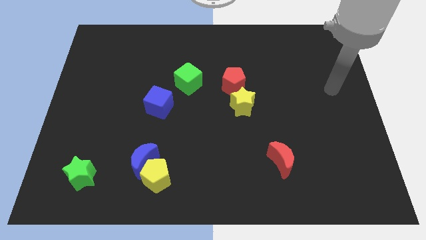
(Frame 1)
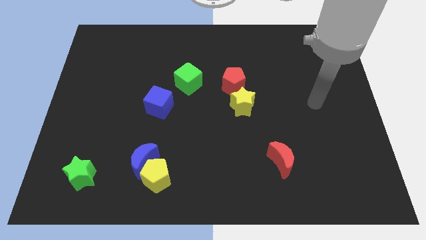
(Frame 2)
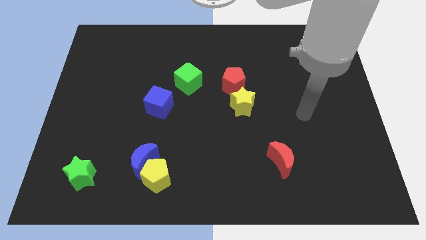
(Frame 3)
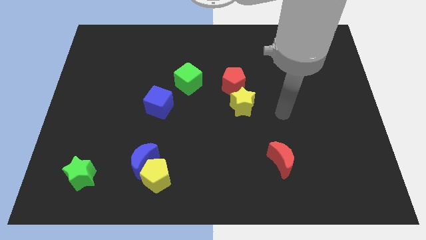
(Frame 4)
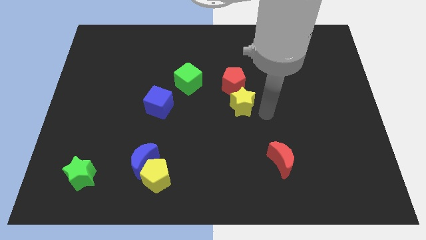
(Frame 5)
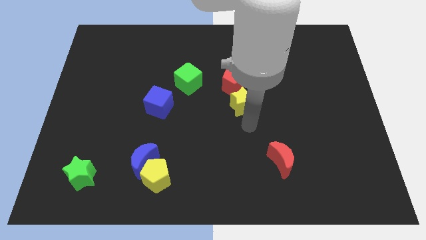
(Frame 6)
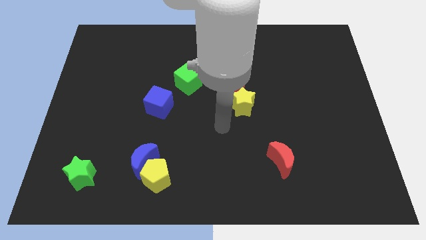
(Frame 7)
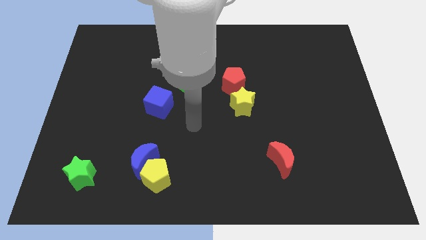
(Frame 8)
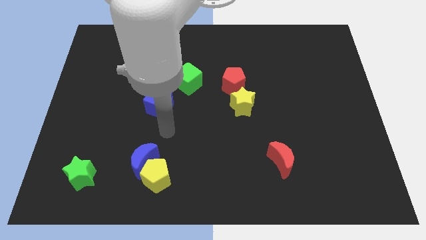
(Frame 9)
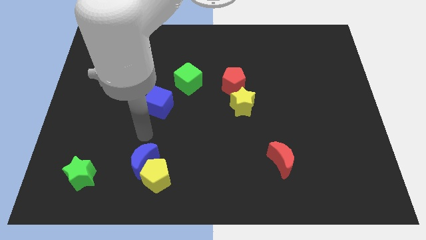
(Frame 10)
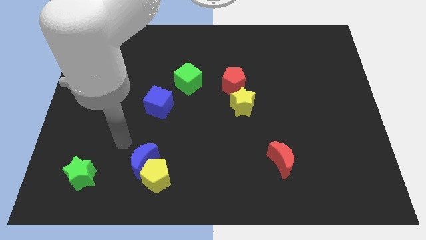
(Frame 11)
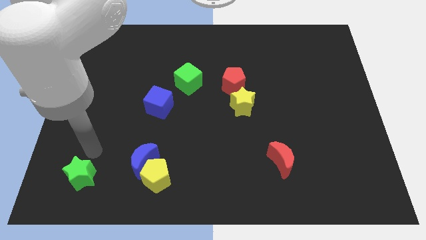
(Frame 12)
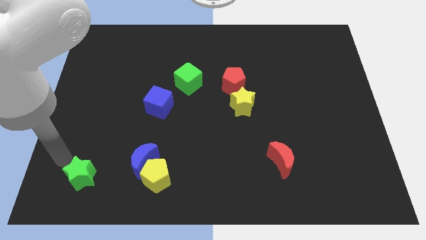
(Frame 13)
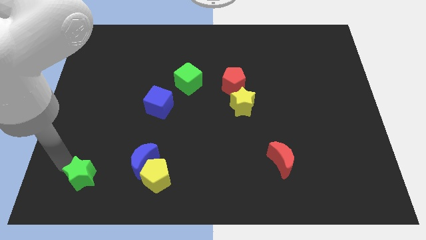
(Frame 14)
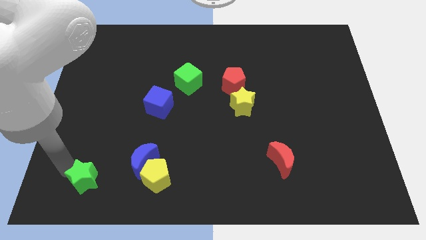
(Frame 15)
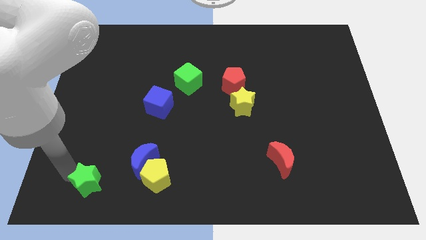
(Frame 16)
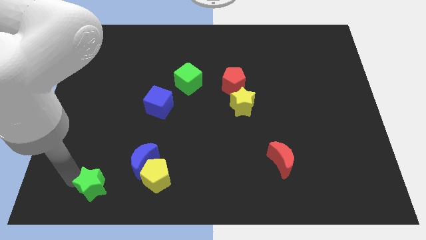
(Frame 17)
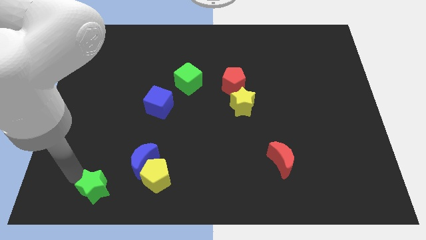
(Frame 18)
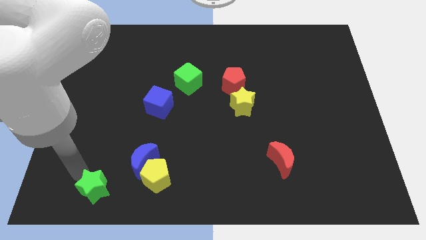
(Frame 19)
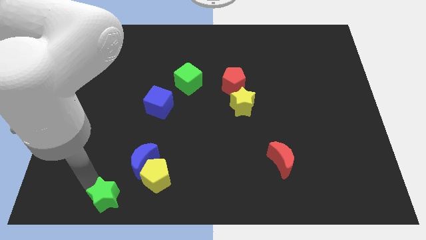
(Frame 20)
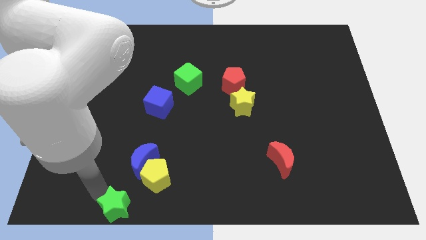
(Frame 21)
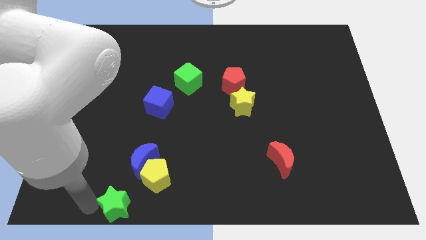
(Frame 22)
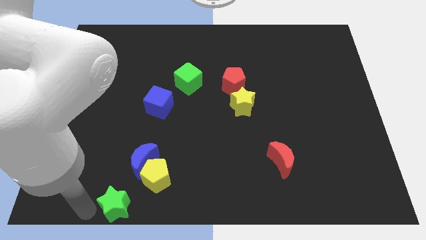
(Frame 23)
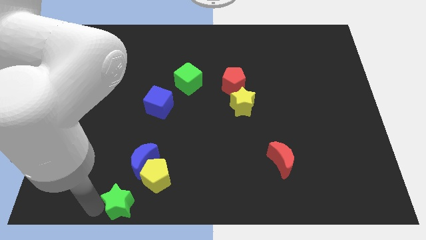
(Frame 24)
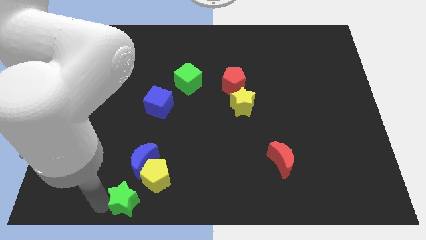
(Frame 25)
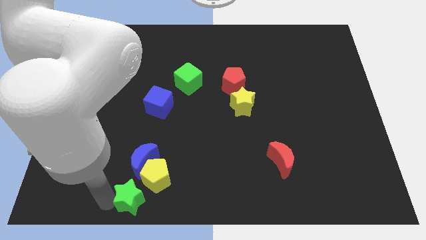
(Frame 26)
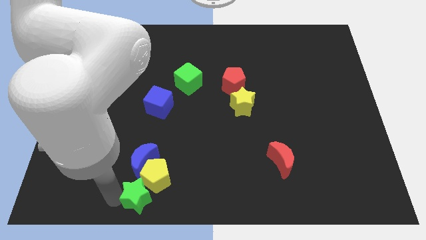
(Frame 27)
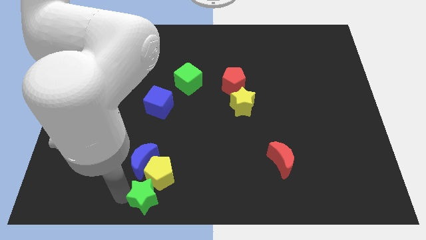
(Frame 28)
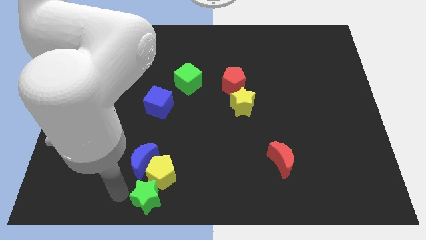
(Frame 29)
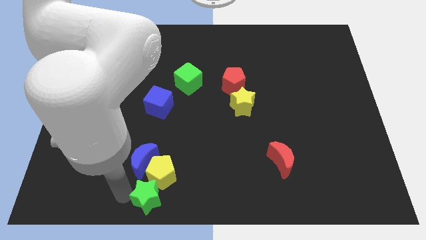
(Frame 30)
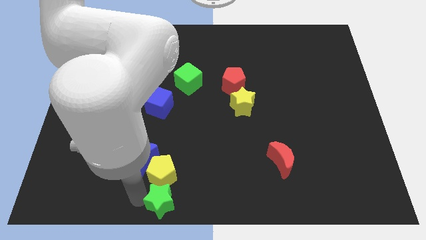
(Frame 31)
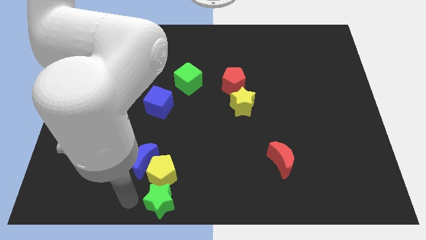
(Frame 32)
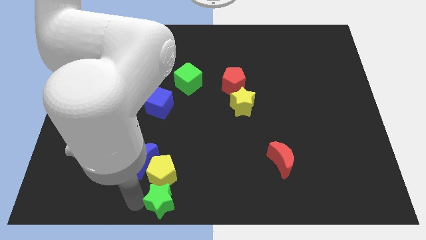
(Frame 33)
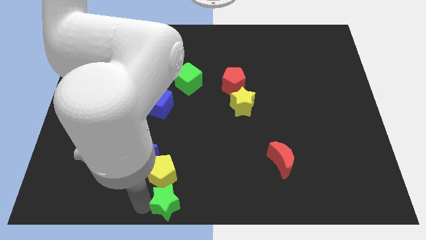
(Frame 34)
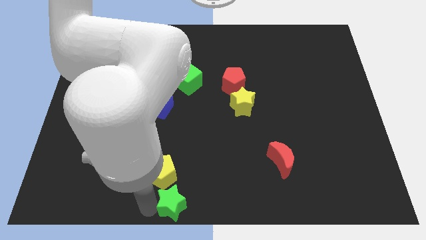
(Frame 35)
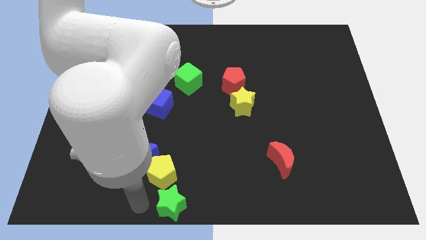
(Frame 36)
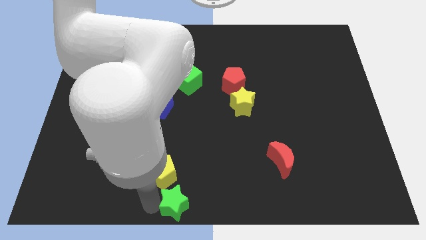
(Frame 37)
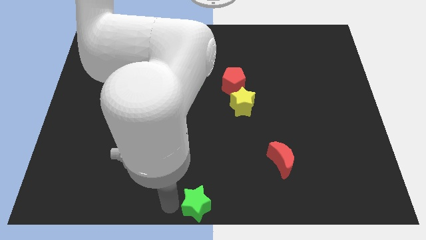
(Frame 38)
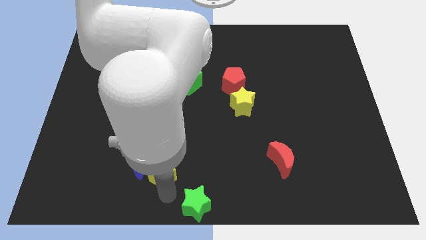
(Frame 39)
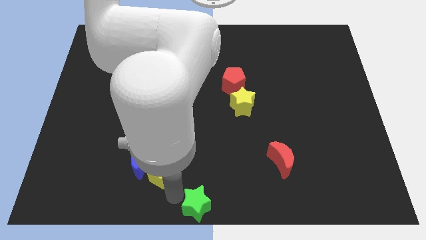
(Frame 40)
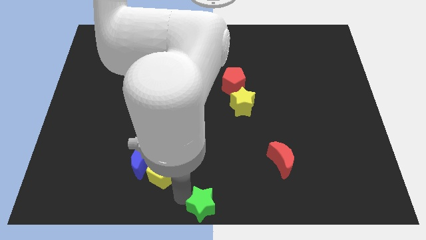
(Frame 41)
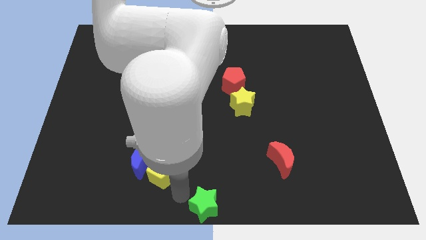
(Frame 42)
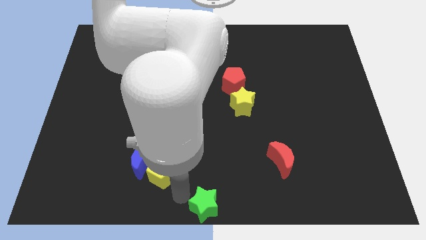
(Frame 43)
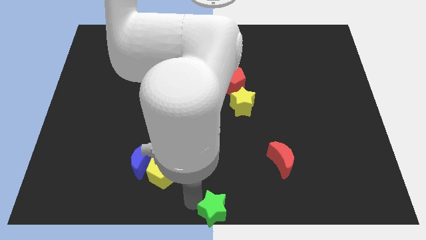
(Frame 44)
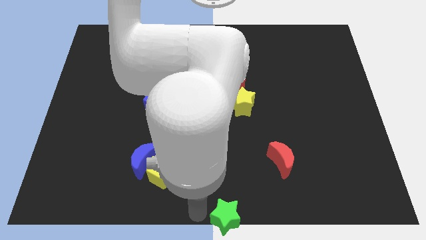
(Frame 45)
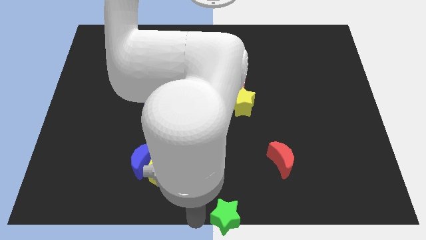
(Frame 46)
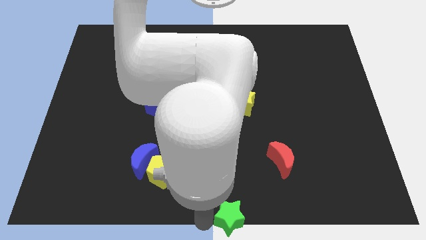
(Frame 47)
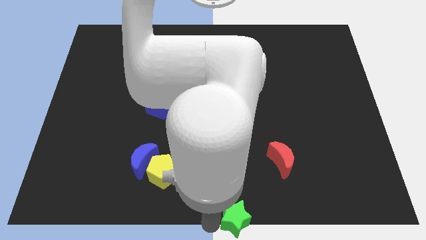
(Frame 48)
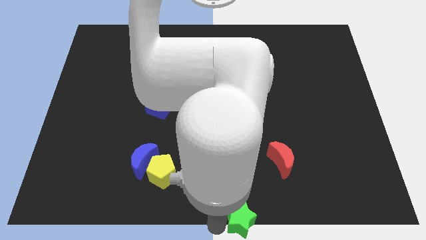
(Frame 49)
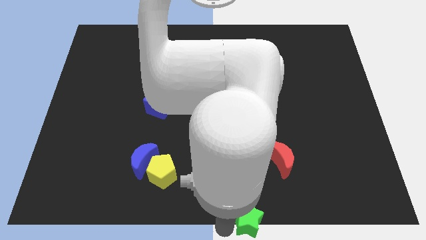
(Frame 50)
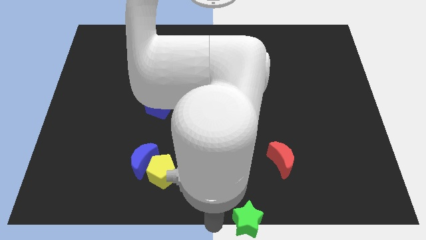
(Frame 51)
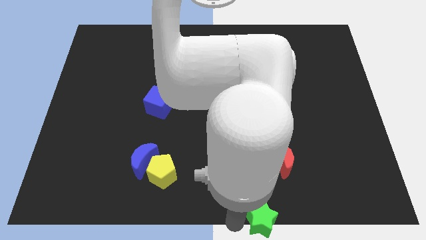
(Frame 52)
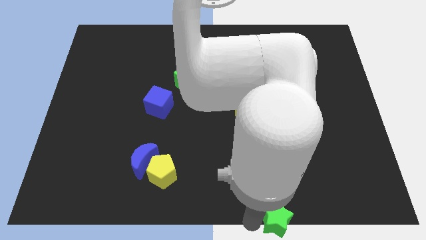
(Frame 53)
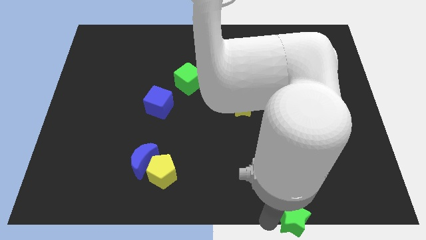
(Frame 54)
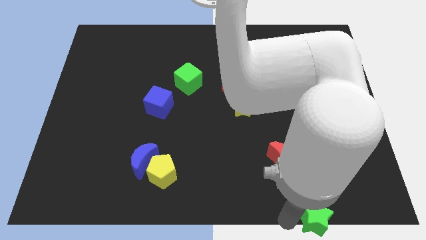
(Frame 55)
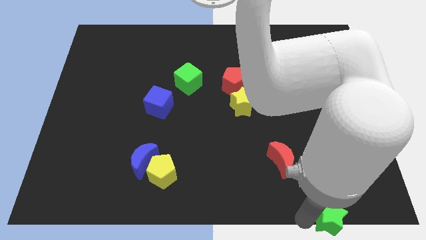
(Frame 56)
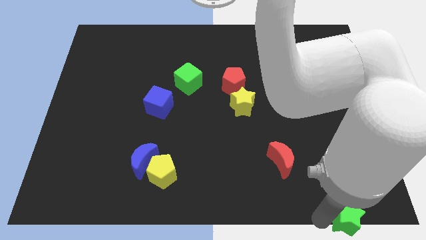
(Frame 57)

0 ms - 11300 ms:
put the green star to the lower right corner
